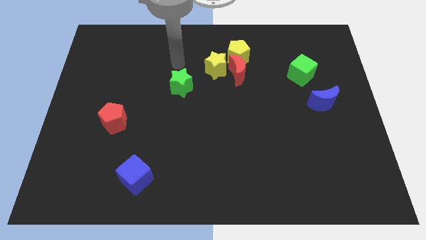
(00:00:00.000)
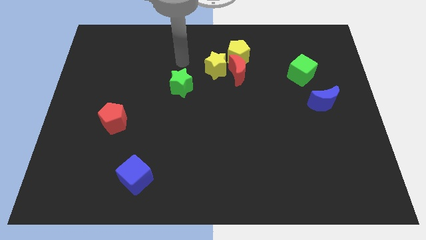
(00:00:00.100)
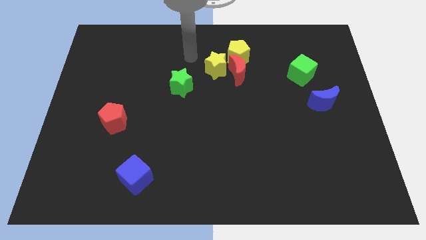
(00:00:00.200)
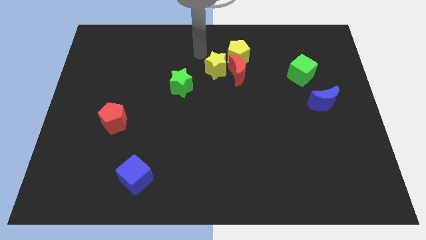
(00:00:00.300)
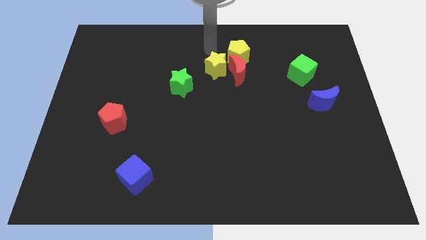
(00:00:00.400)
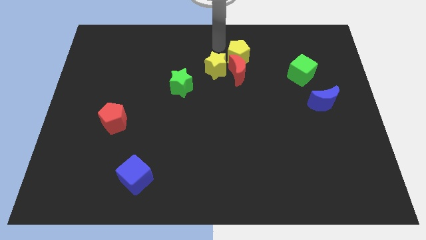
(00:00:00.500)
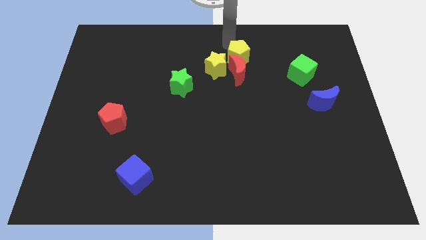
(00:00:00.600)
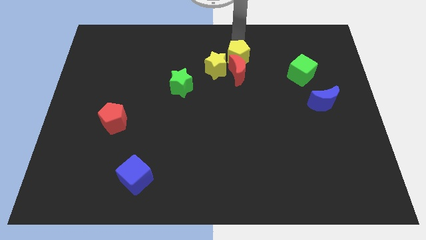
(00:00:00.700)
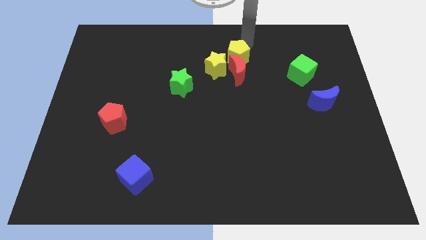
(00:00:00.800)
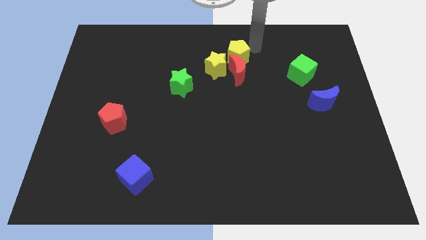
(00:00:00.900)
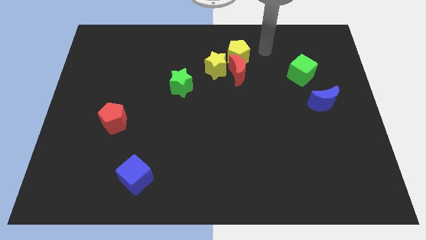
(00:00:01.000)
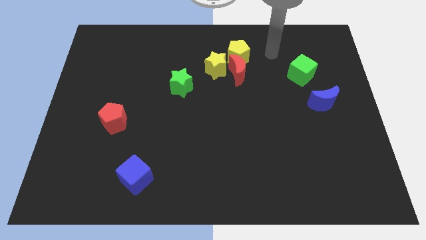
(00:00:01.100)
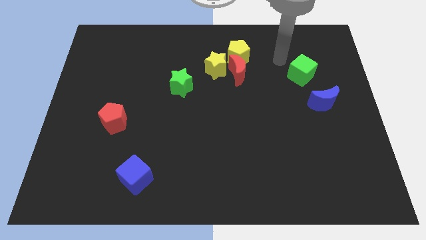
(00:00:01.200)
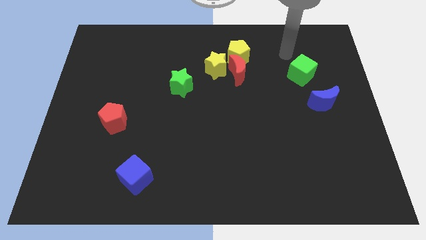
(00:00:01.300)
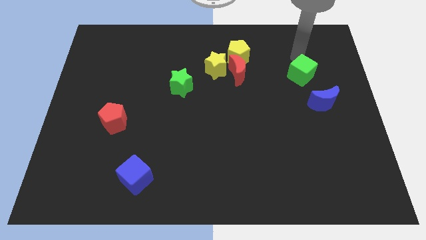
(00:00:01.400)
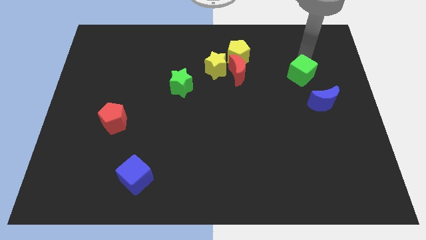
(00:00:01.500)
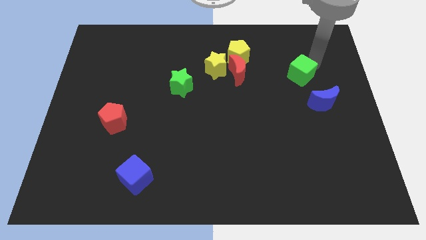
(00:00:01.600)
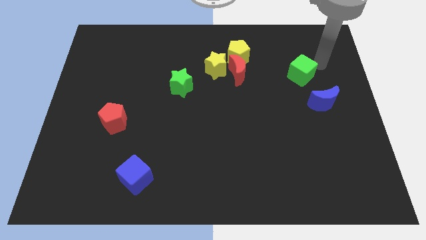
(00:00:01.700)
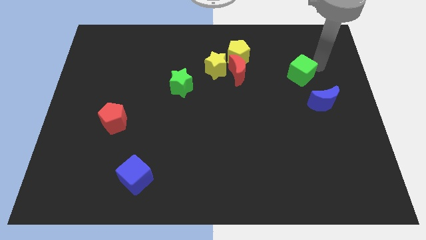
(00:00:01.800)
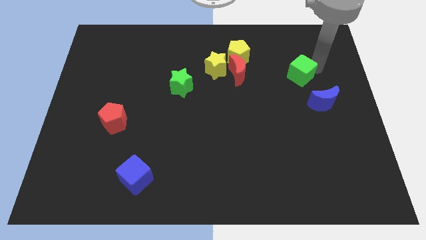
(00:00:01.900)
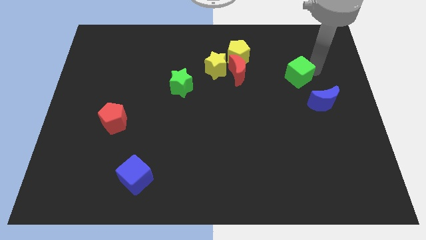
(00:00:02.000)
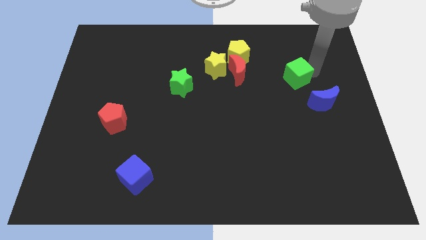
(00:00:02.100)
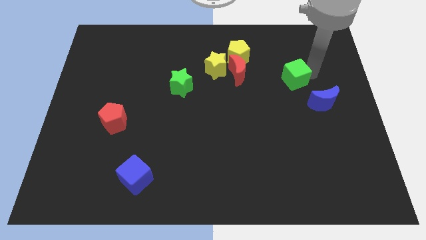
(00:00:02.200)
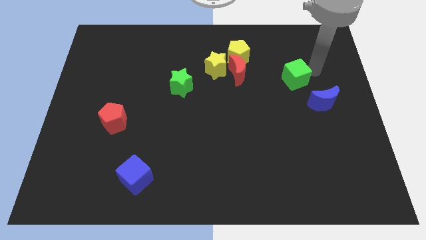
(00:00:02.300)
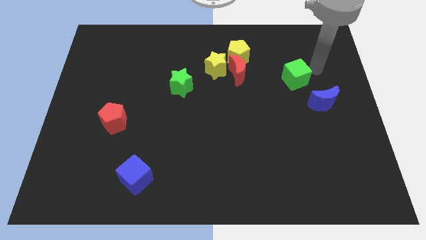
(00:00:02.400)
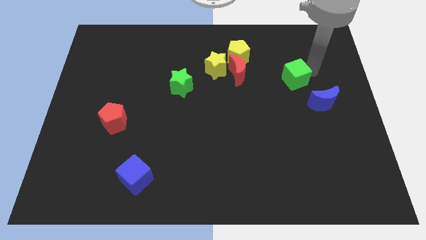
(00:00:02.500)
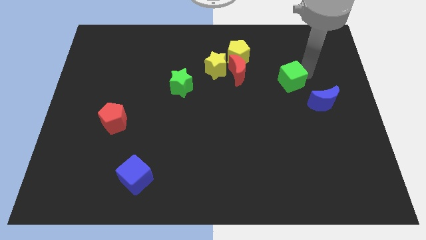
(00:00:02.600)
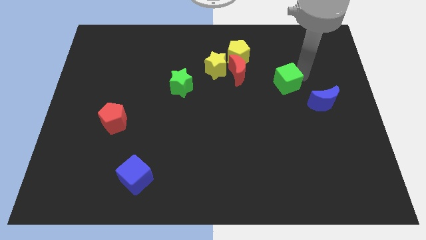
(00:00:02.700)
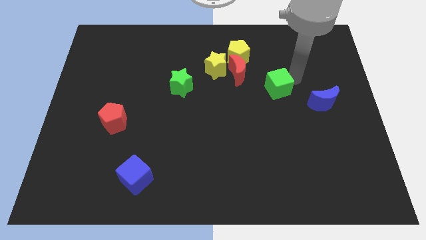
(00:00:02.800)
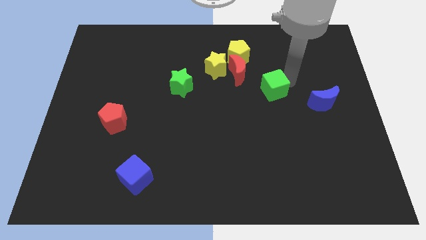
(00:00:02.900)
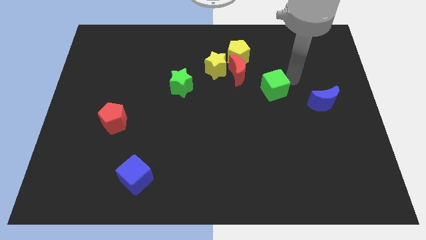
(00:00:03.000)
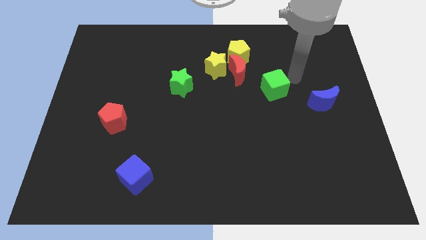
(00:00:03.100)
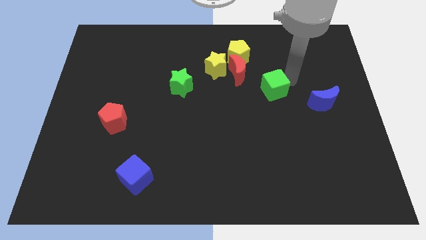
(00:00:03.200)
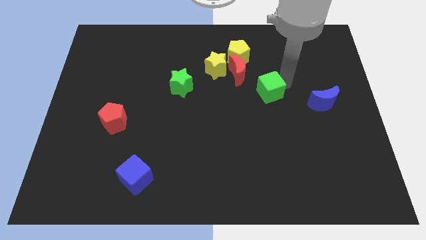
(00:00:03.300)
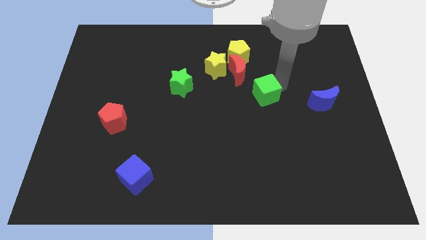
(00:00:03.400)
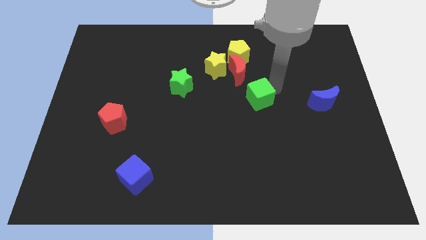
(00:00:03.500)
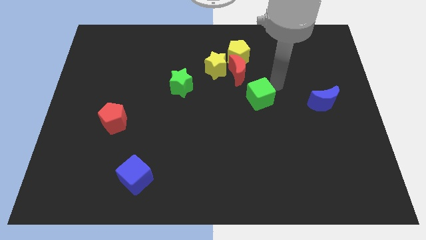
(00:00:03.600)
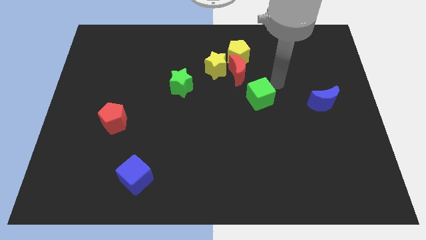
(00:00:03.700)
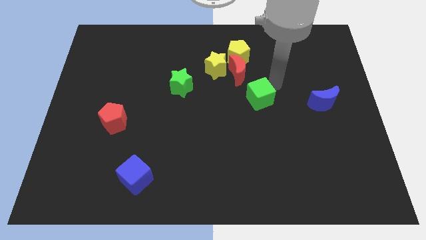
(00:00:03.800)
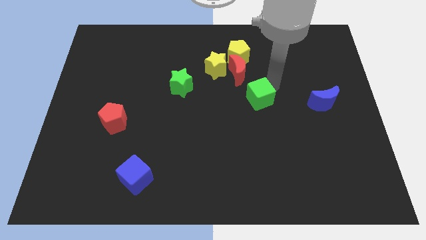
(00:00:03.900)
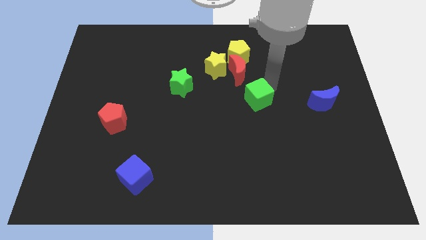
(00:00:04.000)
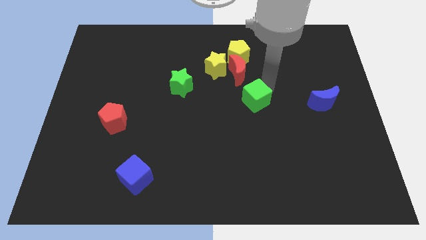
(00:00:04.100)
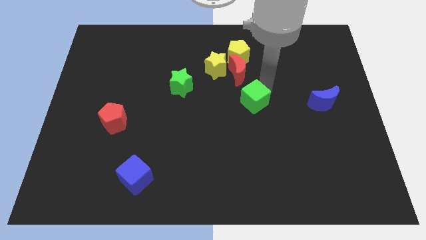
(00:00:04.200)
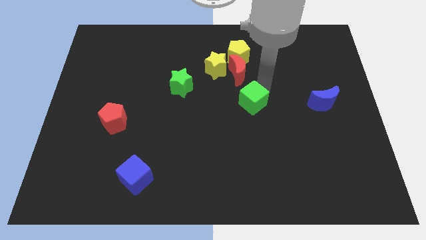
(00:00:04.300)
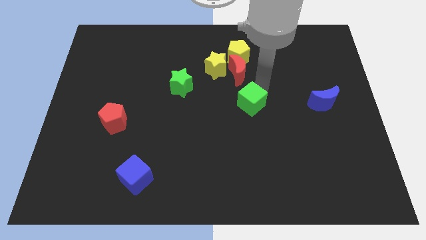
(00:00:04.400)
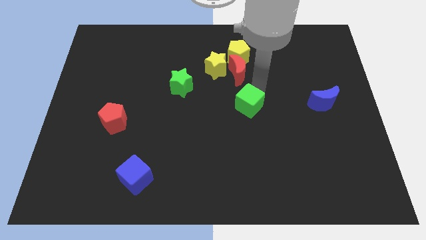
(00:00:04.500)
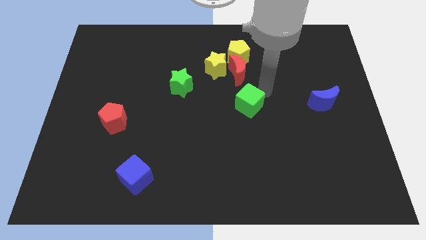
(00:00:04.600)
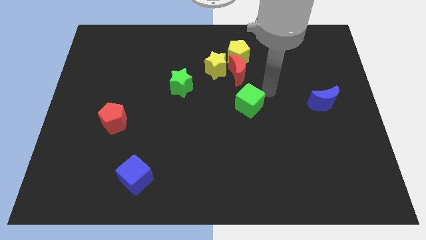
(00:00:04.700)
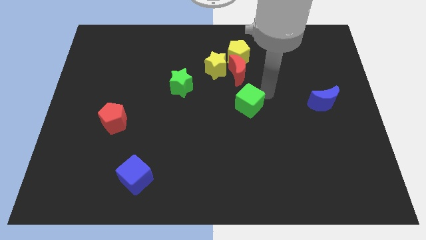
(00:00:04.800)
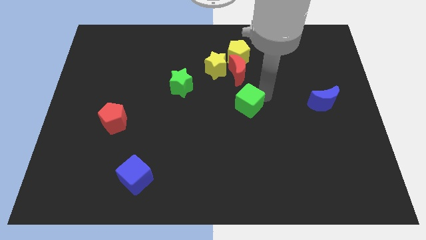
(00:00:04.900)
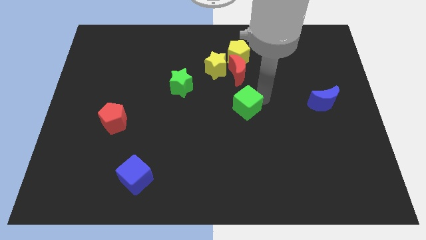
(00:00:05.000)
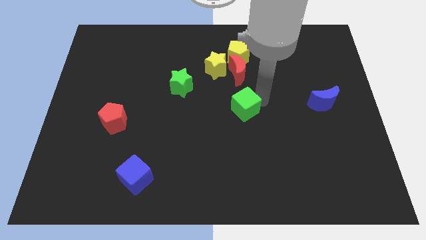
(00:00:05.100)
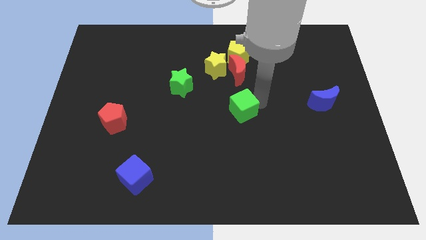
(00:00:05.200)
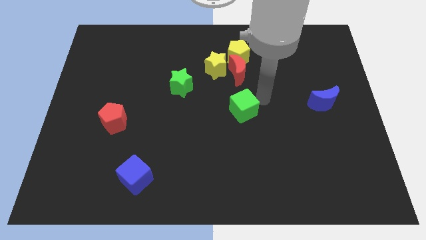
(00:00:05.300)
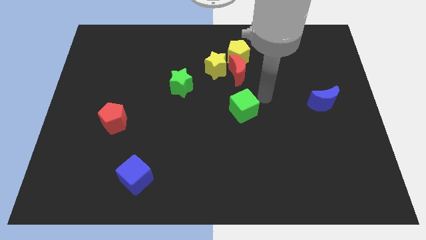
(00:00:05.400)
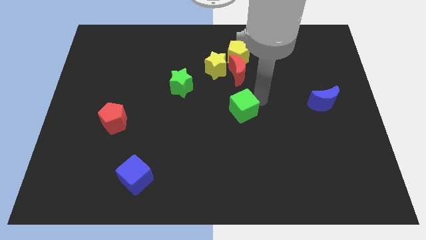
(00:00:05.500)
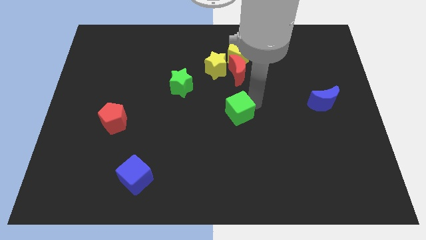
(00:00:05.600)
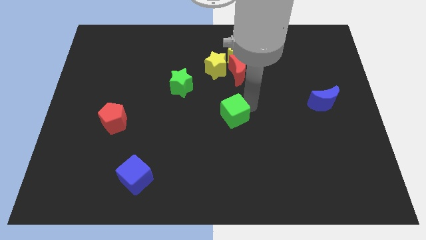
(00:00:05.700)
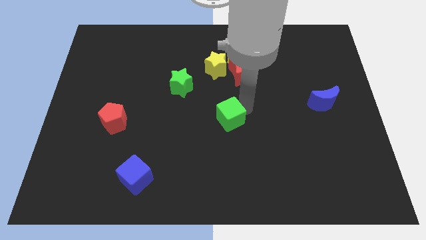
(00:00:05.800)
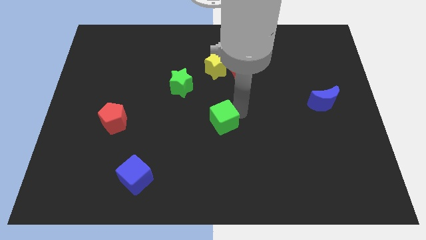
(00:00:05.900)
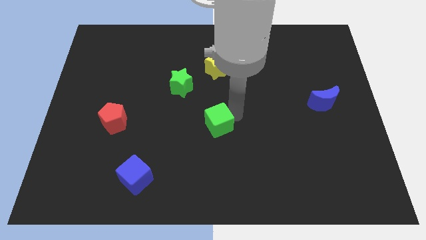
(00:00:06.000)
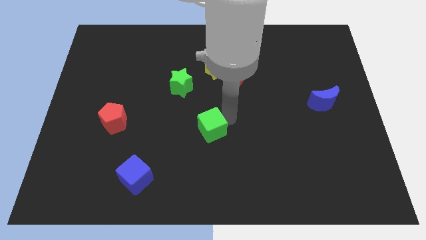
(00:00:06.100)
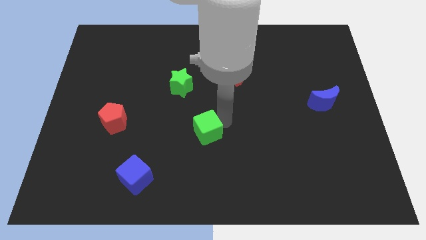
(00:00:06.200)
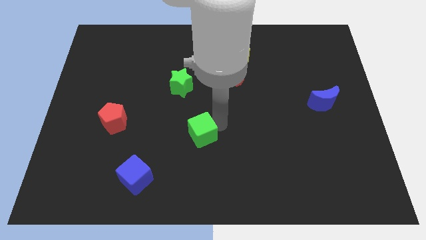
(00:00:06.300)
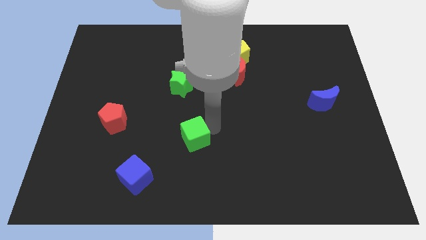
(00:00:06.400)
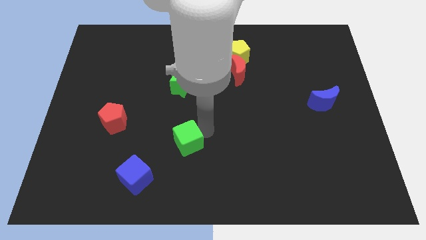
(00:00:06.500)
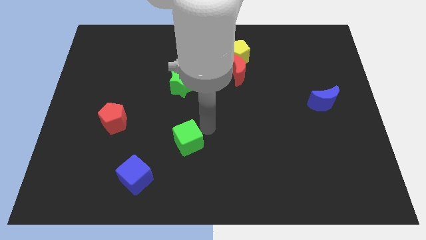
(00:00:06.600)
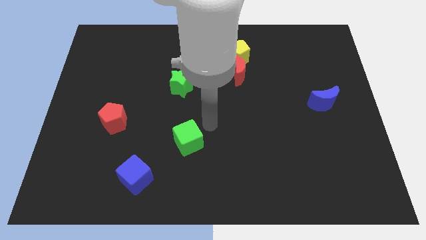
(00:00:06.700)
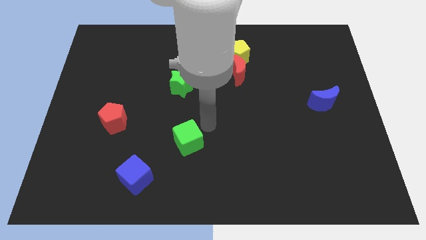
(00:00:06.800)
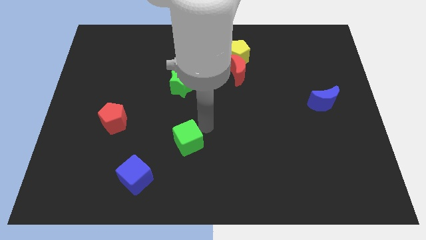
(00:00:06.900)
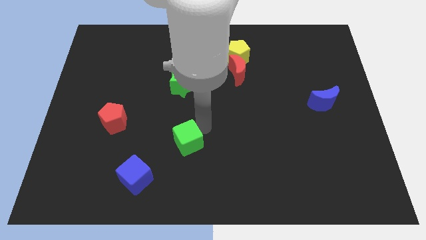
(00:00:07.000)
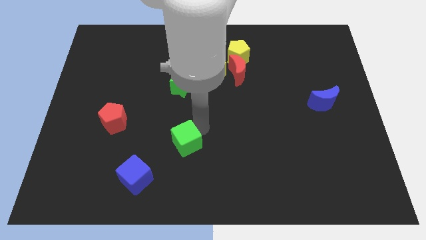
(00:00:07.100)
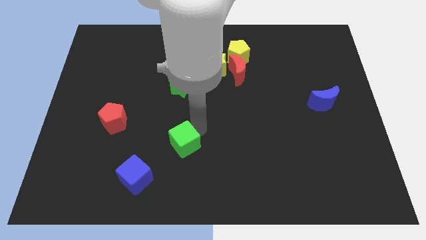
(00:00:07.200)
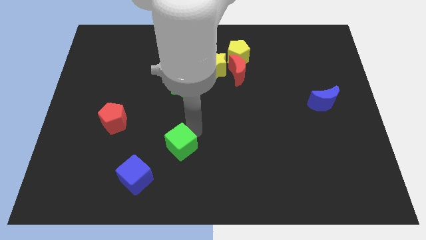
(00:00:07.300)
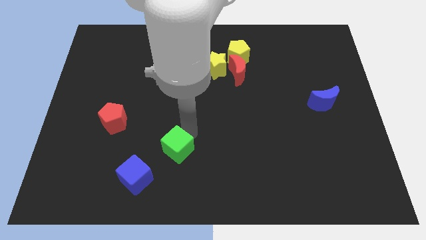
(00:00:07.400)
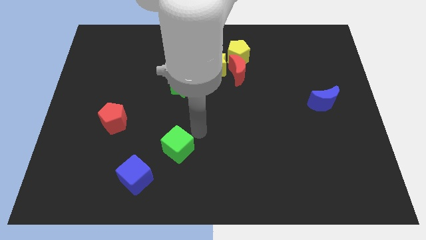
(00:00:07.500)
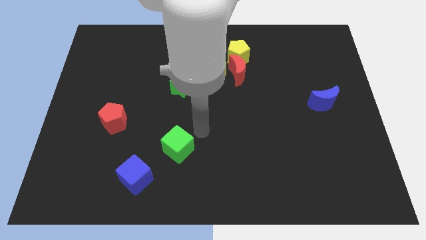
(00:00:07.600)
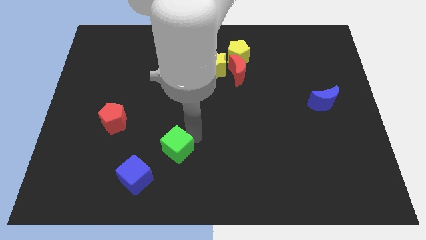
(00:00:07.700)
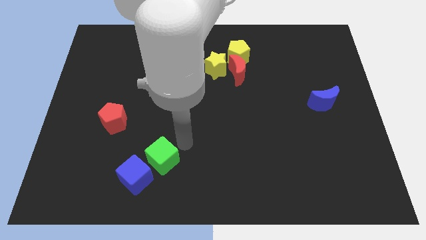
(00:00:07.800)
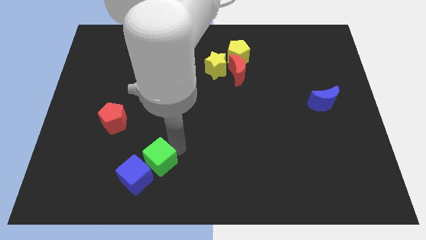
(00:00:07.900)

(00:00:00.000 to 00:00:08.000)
slide the green cube next to the blue cube
